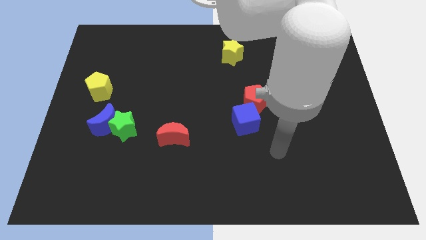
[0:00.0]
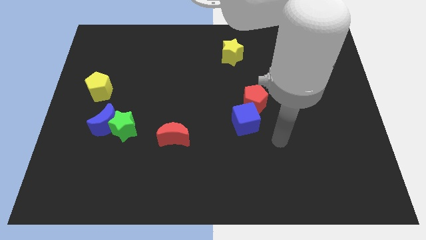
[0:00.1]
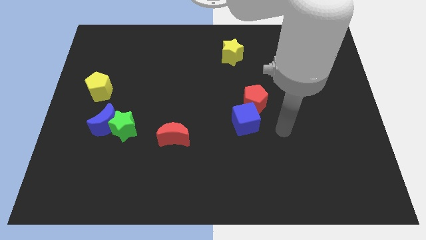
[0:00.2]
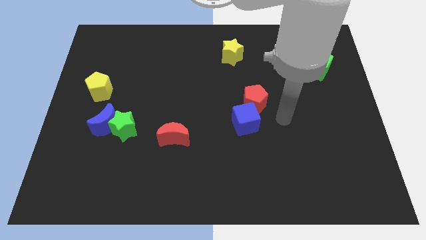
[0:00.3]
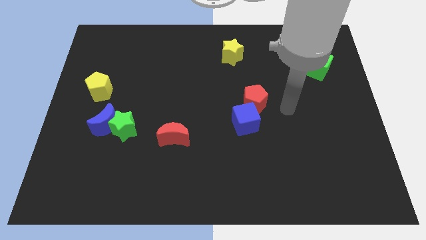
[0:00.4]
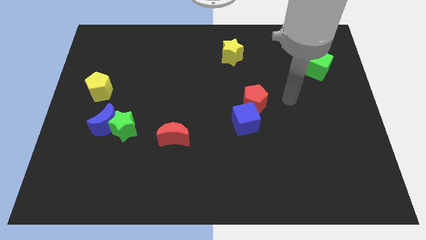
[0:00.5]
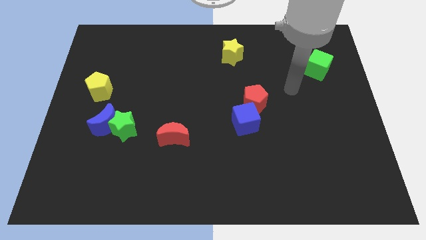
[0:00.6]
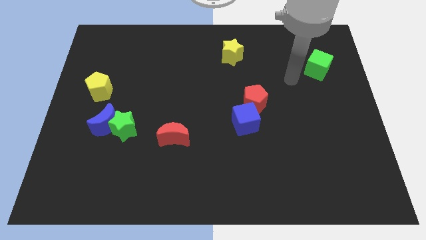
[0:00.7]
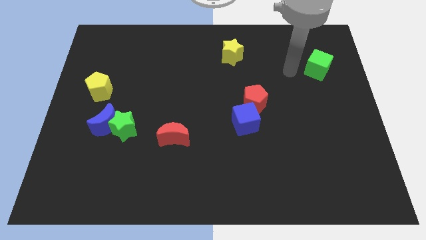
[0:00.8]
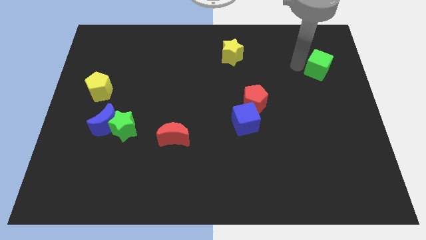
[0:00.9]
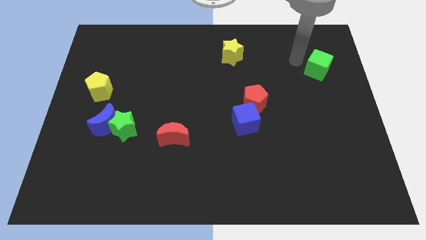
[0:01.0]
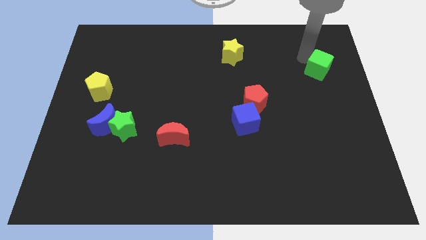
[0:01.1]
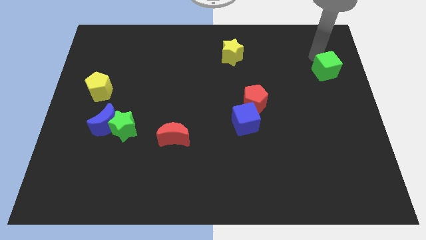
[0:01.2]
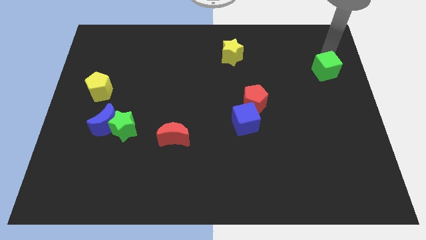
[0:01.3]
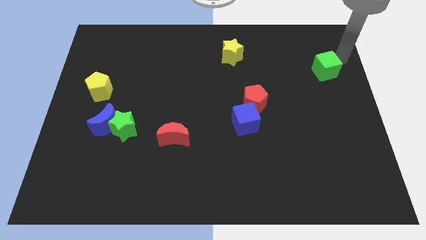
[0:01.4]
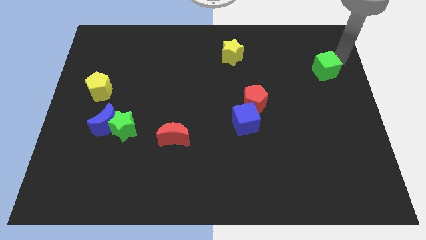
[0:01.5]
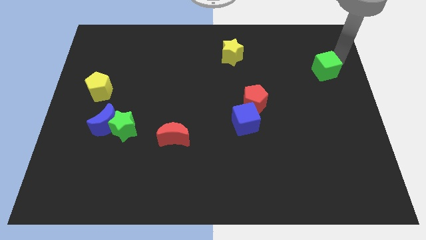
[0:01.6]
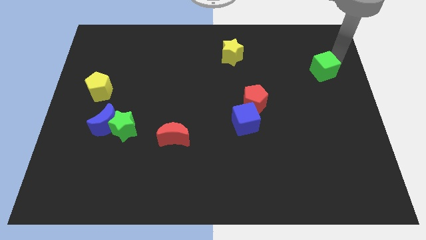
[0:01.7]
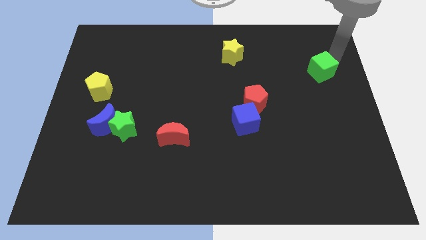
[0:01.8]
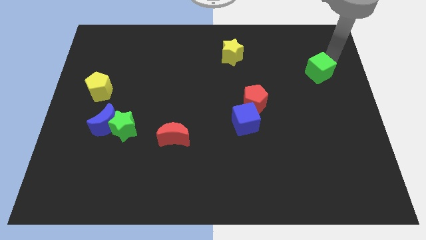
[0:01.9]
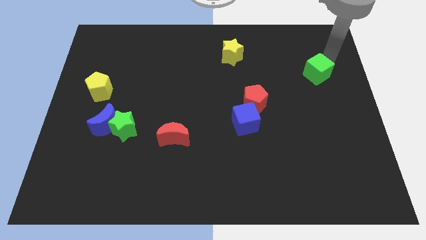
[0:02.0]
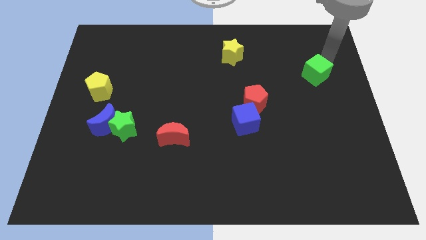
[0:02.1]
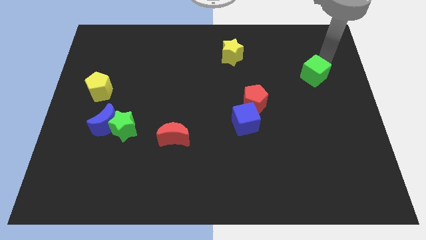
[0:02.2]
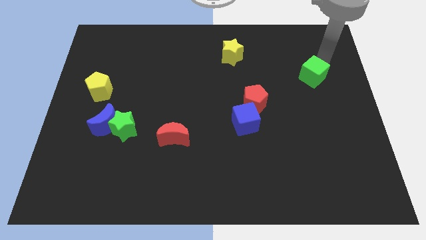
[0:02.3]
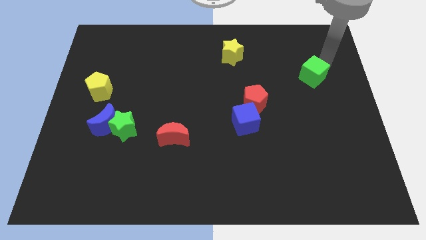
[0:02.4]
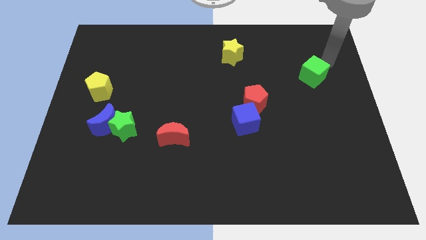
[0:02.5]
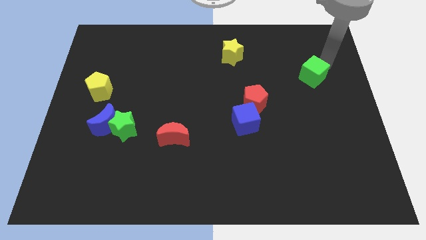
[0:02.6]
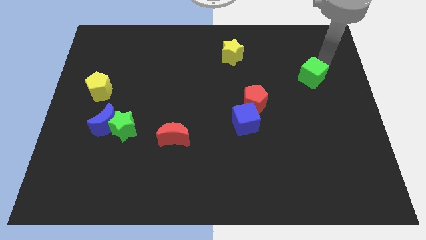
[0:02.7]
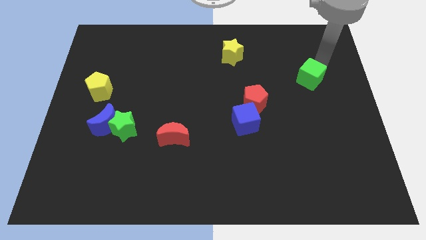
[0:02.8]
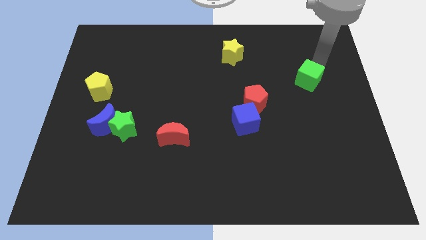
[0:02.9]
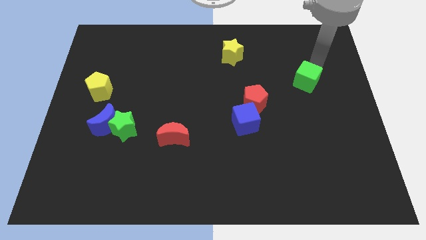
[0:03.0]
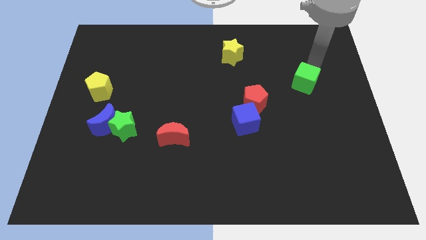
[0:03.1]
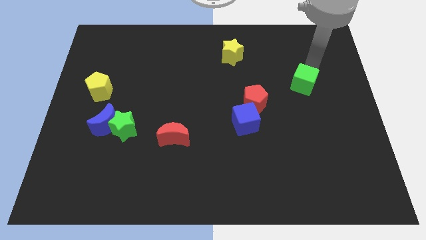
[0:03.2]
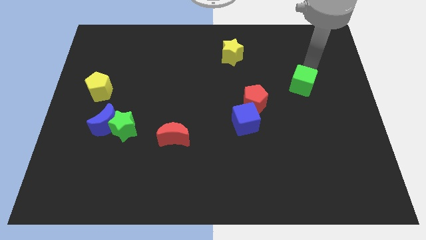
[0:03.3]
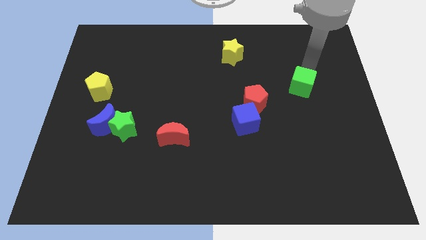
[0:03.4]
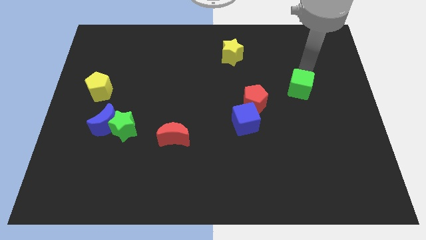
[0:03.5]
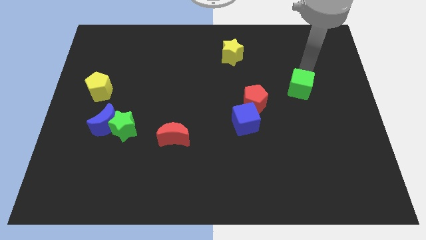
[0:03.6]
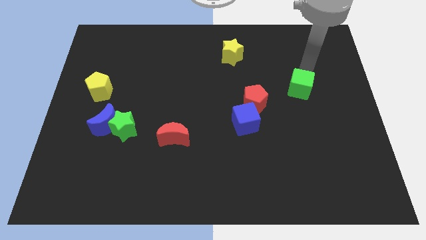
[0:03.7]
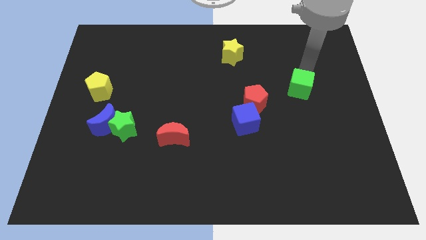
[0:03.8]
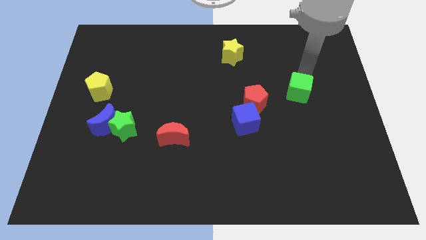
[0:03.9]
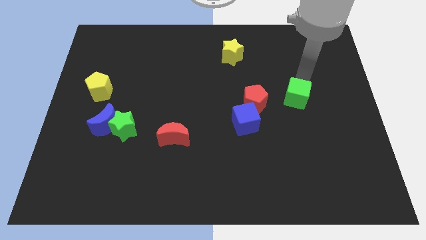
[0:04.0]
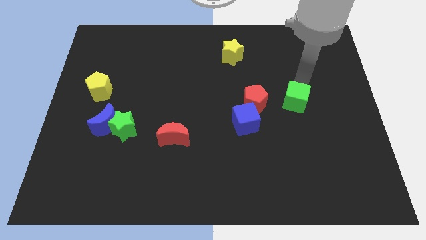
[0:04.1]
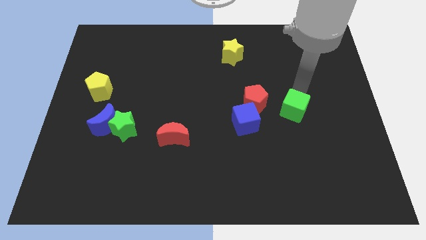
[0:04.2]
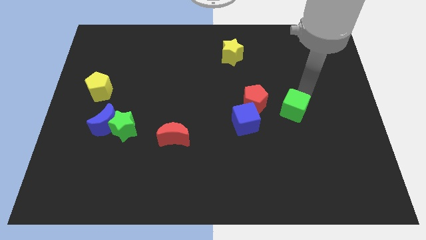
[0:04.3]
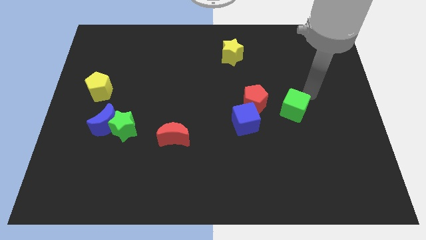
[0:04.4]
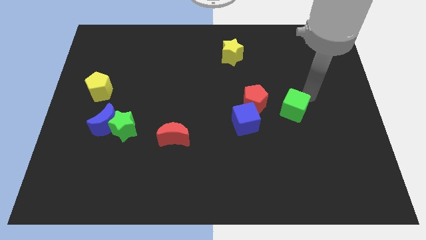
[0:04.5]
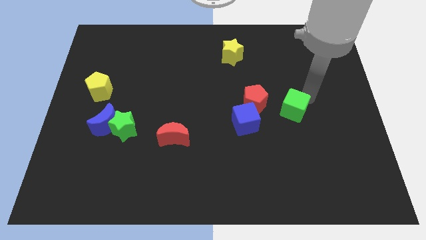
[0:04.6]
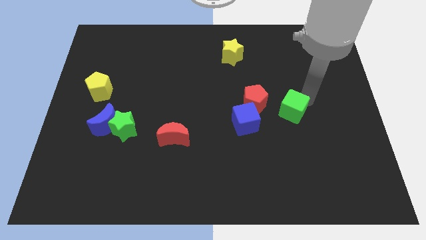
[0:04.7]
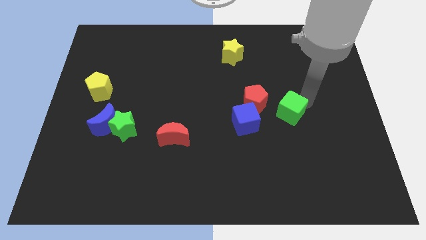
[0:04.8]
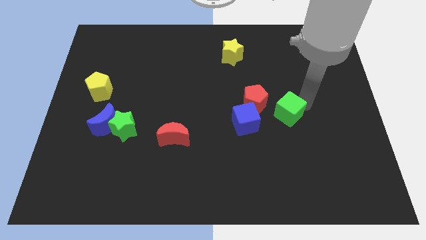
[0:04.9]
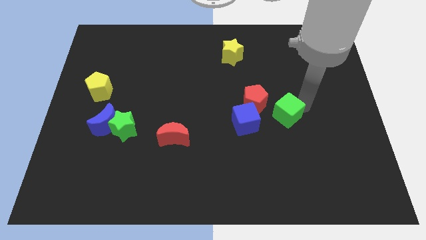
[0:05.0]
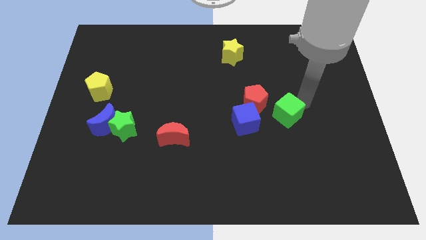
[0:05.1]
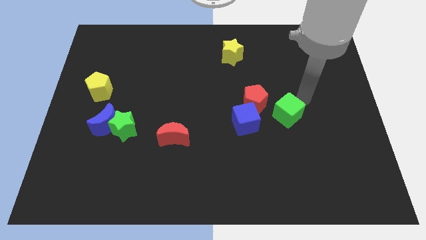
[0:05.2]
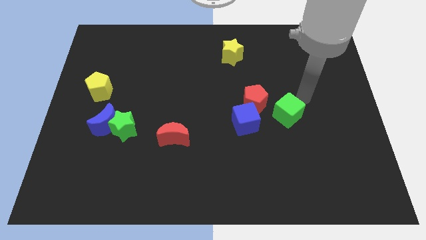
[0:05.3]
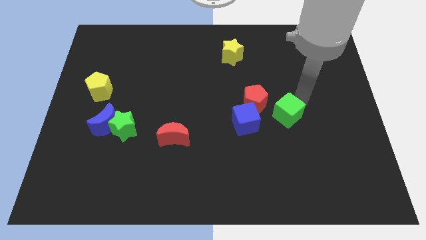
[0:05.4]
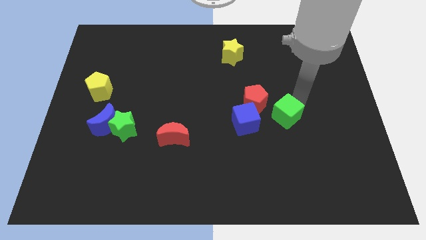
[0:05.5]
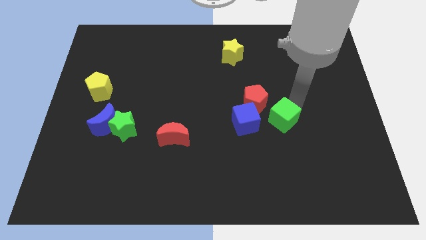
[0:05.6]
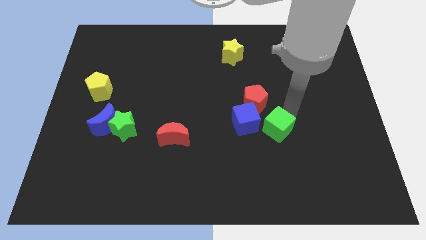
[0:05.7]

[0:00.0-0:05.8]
slide the green cube down and then to the left

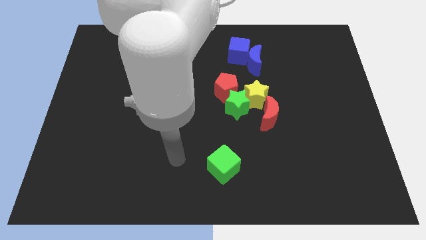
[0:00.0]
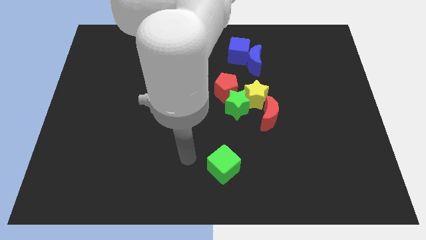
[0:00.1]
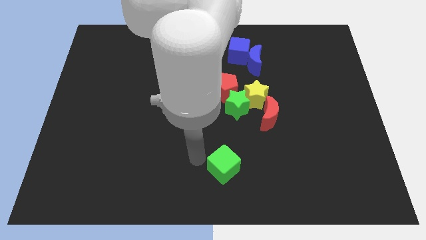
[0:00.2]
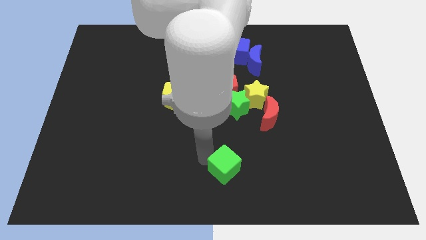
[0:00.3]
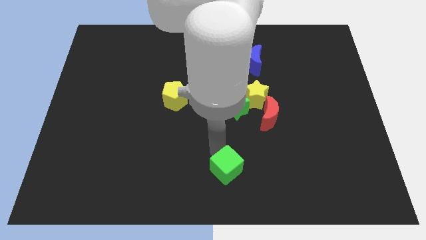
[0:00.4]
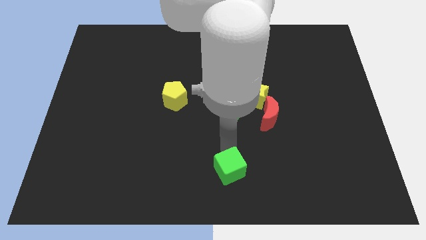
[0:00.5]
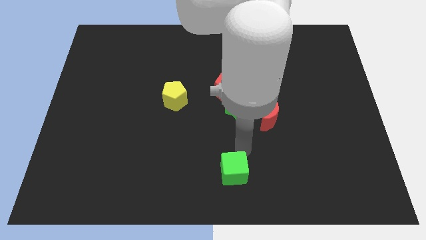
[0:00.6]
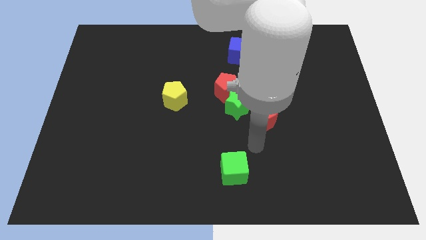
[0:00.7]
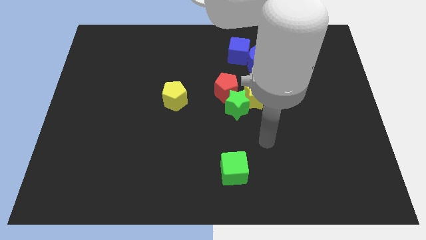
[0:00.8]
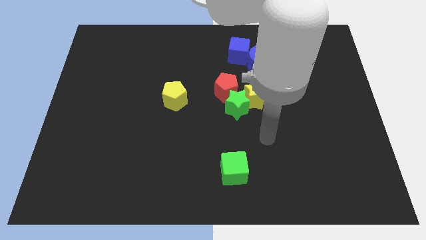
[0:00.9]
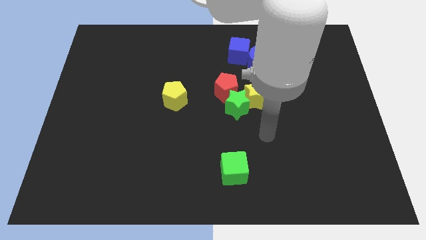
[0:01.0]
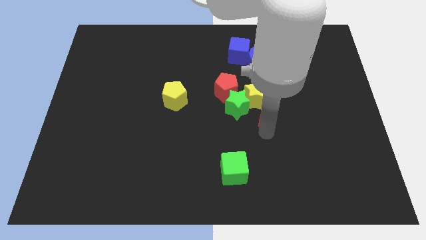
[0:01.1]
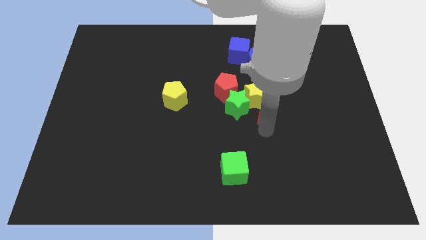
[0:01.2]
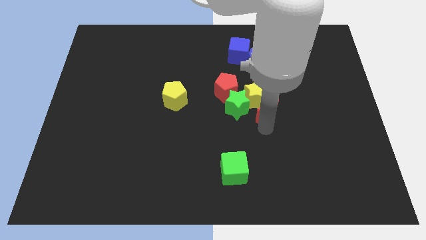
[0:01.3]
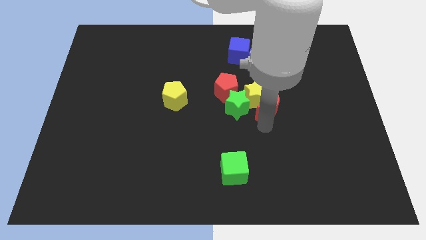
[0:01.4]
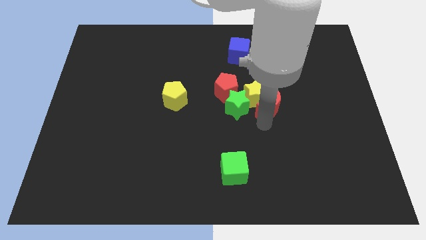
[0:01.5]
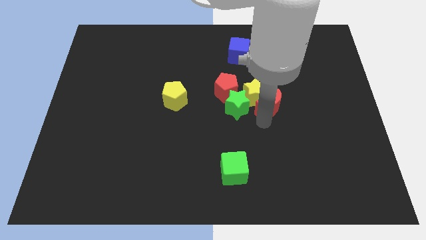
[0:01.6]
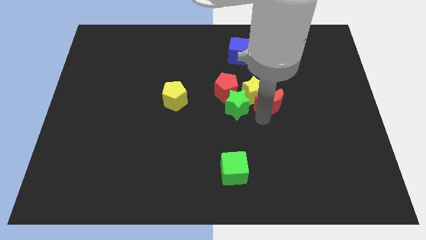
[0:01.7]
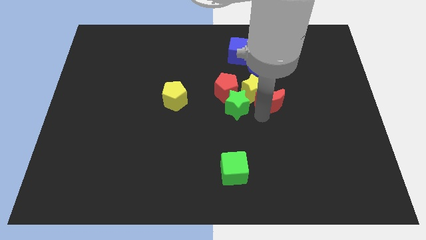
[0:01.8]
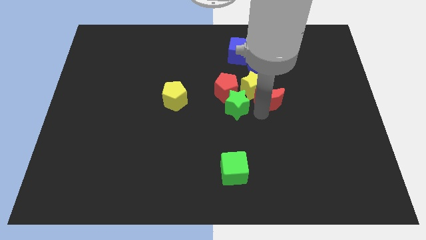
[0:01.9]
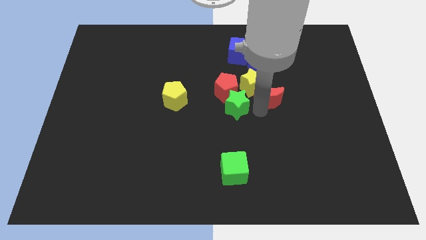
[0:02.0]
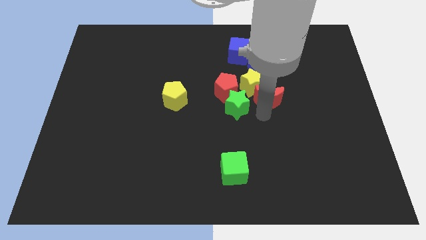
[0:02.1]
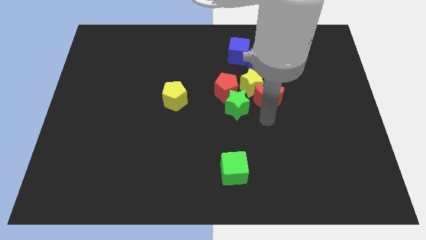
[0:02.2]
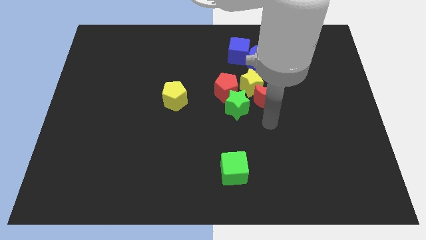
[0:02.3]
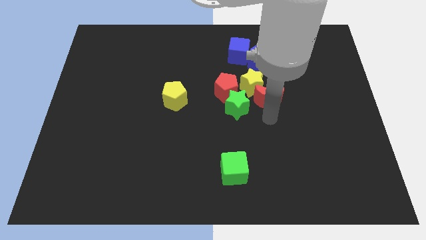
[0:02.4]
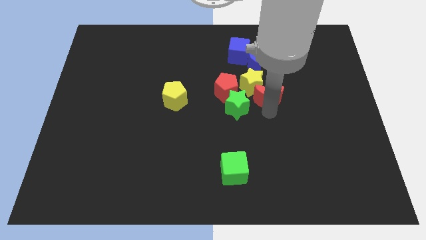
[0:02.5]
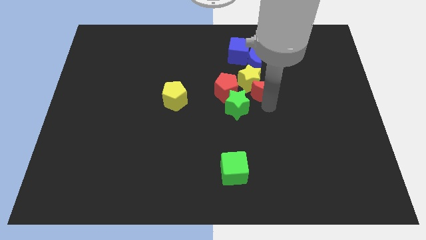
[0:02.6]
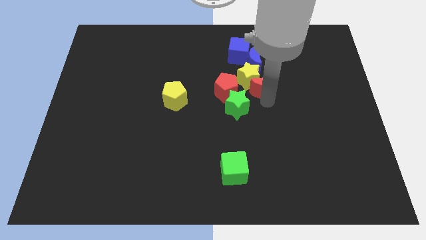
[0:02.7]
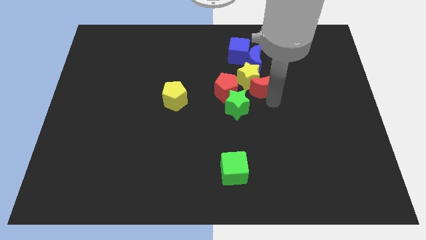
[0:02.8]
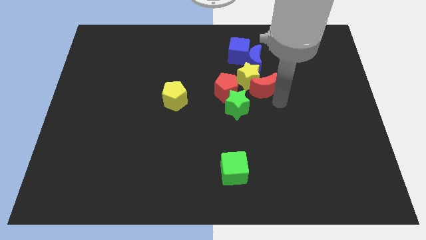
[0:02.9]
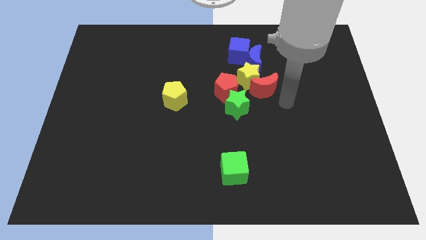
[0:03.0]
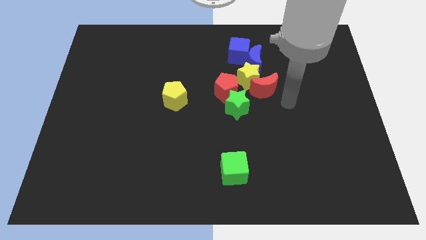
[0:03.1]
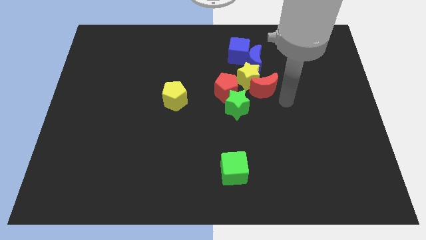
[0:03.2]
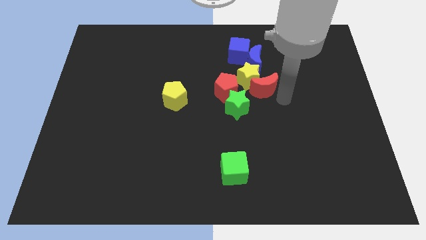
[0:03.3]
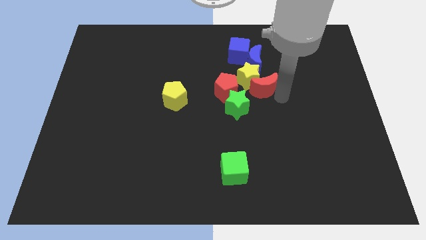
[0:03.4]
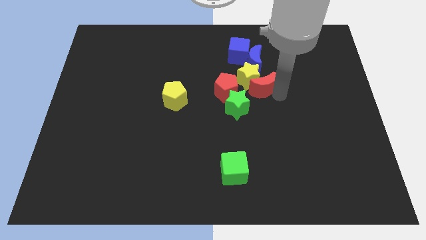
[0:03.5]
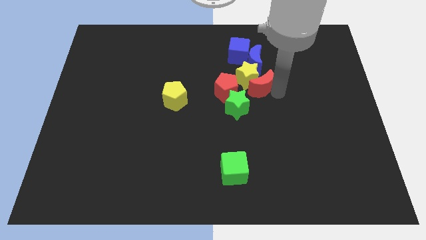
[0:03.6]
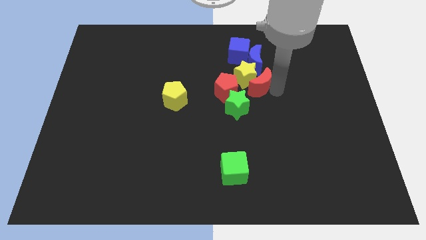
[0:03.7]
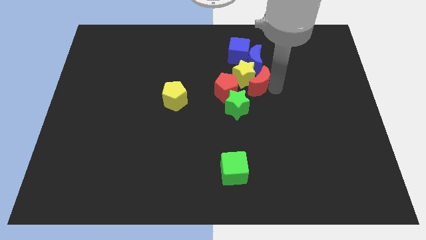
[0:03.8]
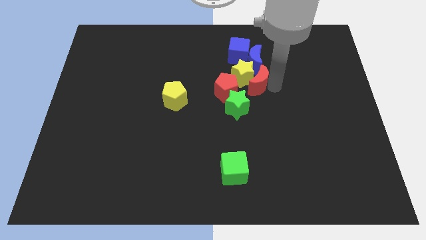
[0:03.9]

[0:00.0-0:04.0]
move the red moon somewhat up and then left
